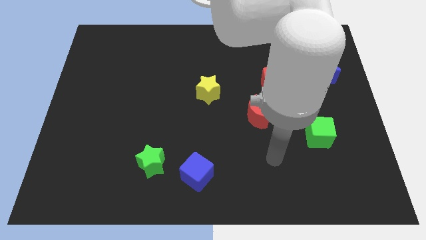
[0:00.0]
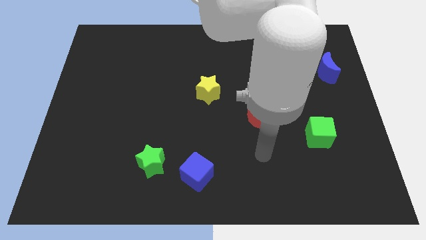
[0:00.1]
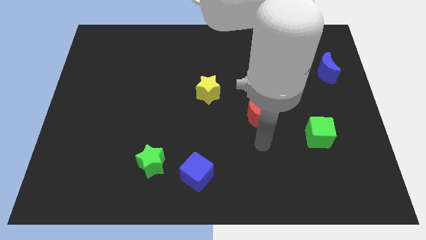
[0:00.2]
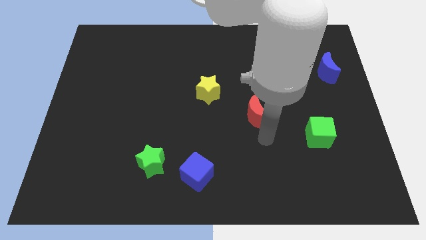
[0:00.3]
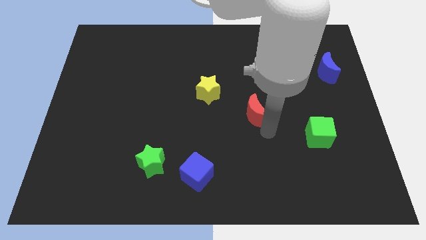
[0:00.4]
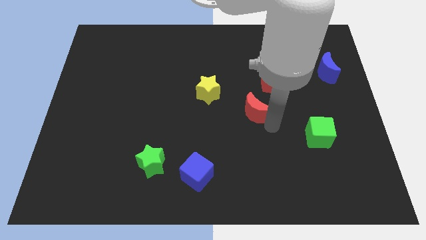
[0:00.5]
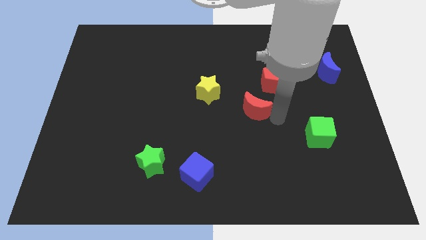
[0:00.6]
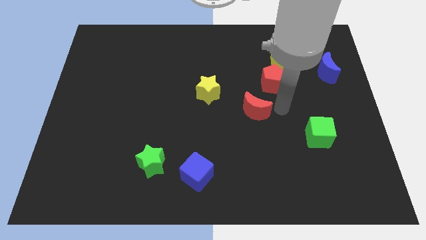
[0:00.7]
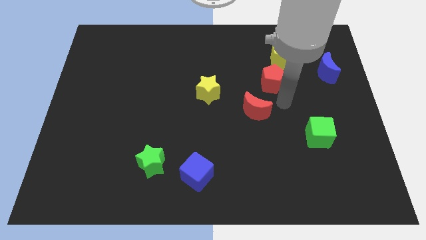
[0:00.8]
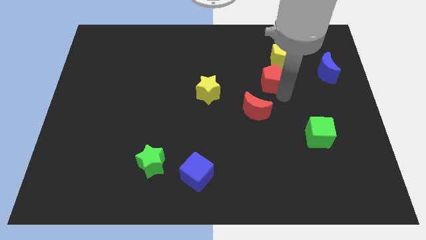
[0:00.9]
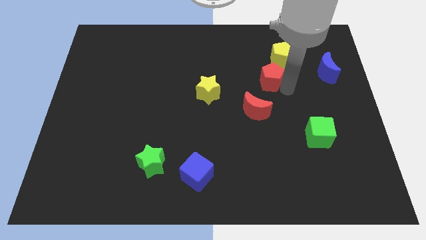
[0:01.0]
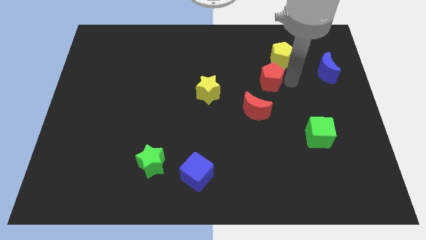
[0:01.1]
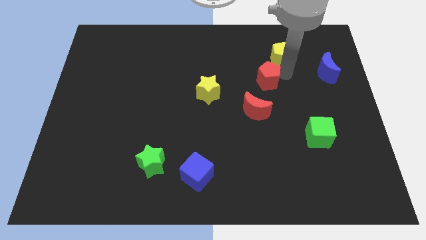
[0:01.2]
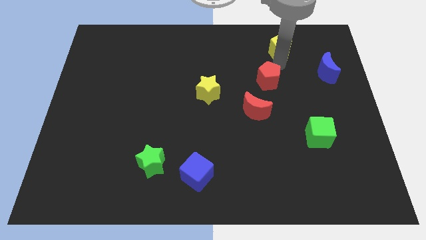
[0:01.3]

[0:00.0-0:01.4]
separate the red pentagon from the yellow pentagon

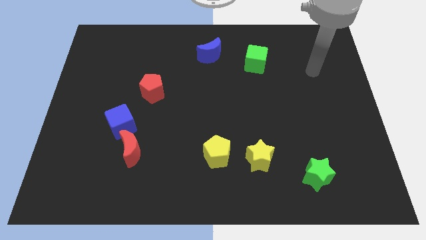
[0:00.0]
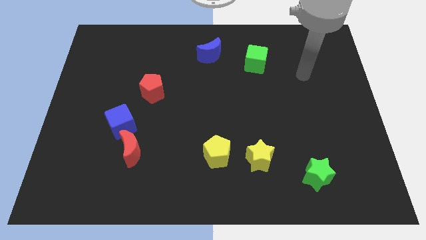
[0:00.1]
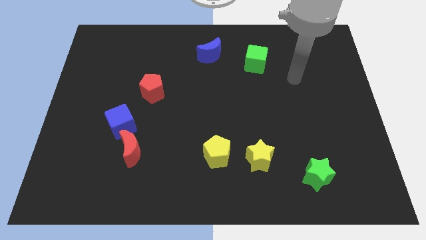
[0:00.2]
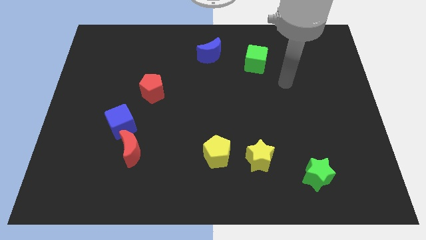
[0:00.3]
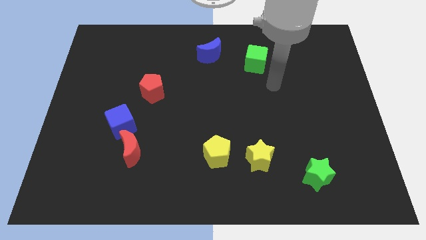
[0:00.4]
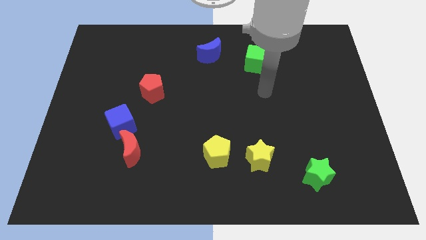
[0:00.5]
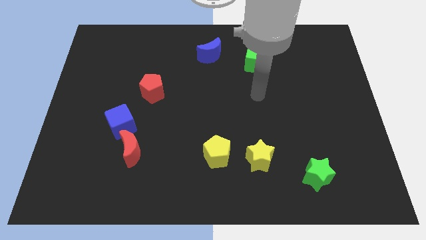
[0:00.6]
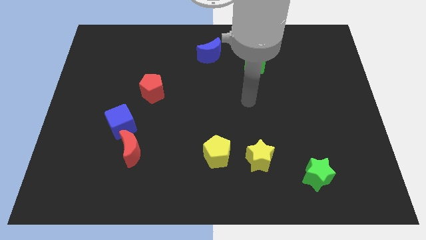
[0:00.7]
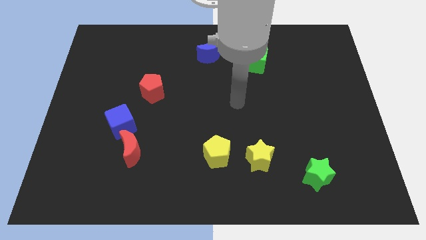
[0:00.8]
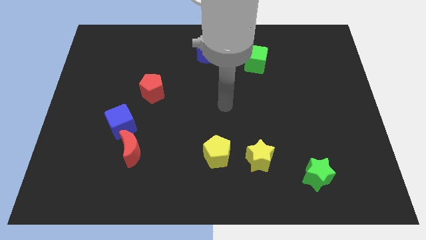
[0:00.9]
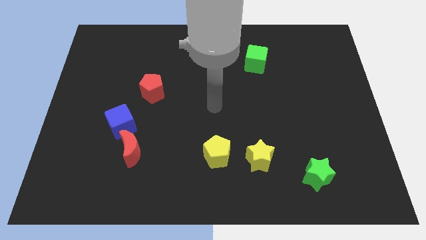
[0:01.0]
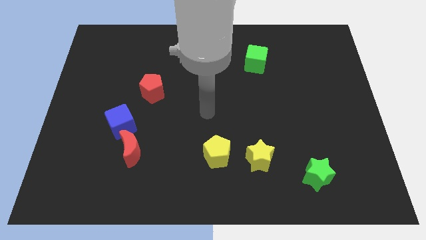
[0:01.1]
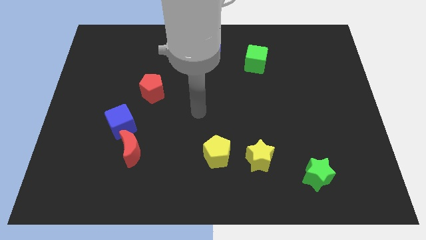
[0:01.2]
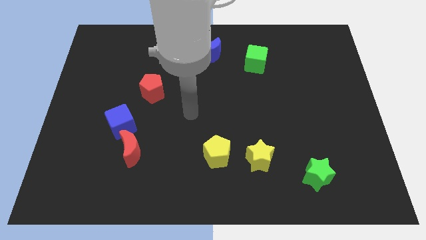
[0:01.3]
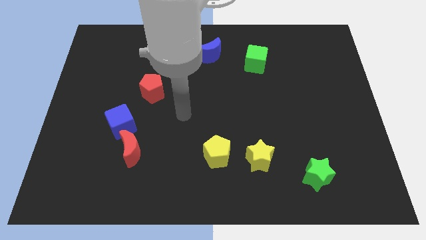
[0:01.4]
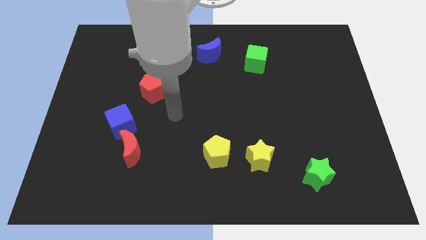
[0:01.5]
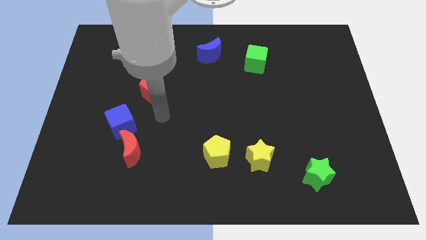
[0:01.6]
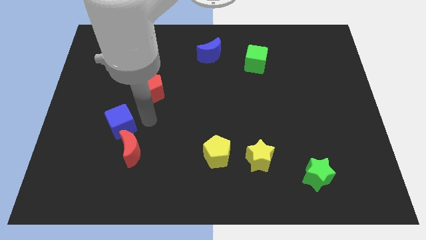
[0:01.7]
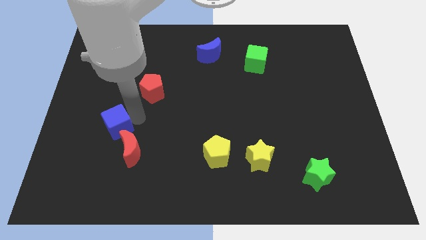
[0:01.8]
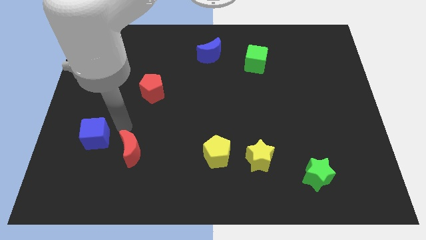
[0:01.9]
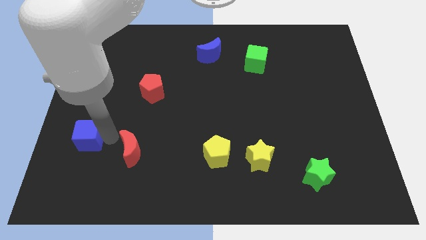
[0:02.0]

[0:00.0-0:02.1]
separate the red moon from the blue cube

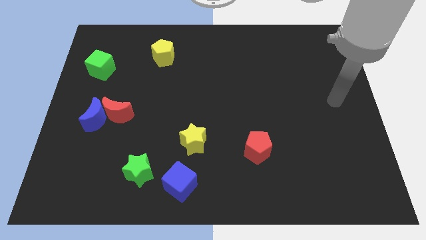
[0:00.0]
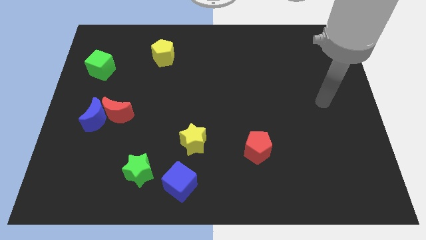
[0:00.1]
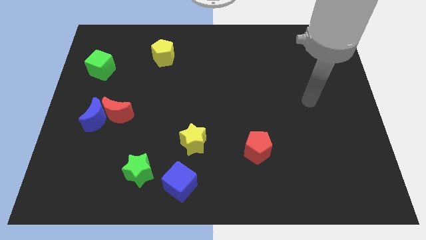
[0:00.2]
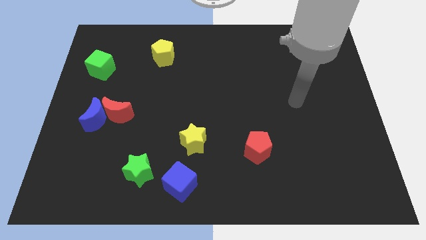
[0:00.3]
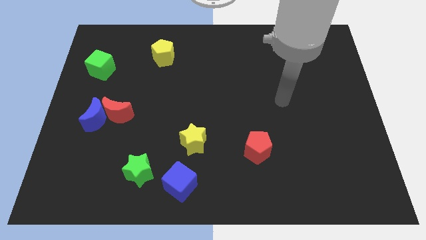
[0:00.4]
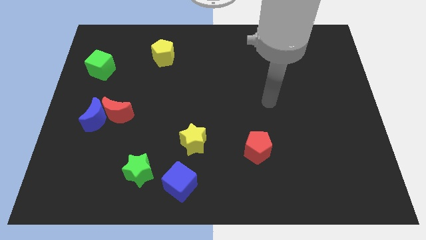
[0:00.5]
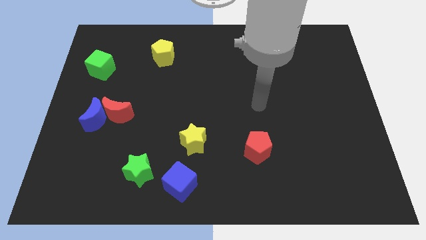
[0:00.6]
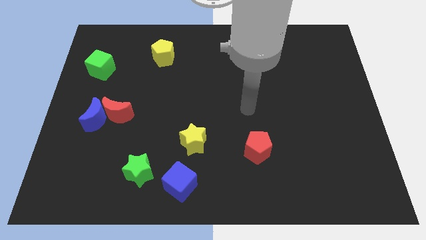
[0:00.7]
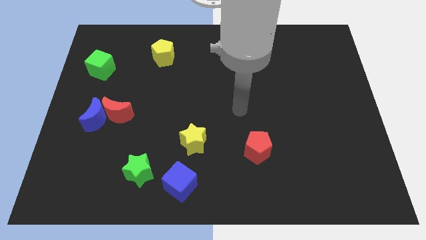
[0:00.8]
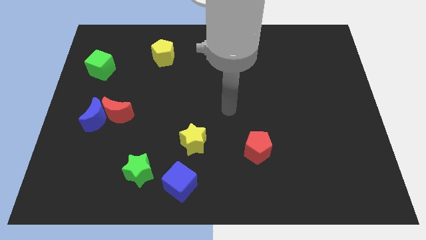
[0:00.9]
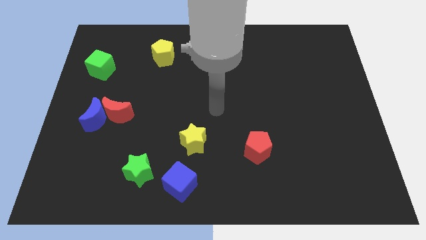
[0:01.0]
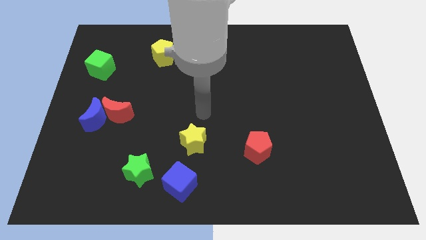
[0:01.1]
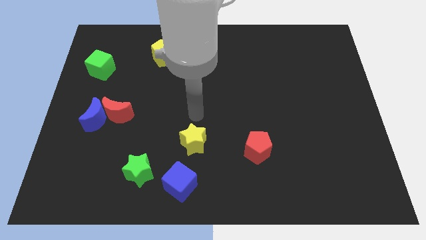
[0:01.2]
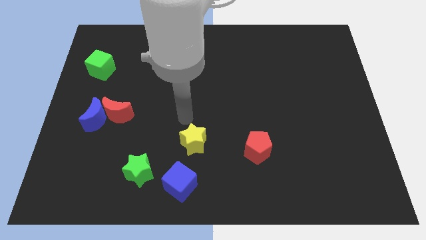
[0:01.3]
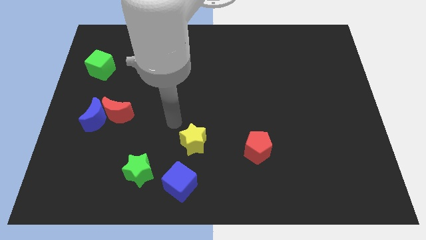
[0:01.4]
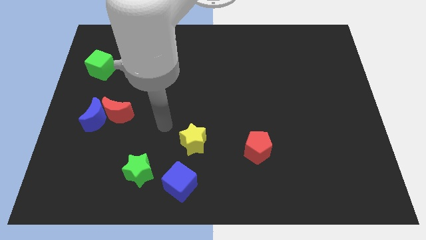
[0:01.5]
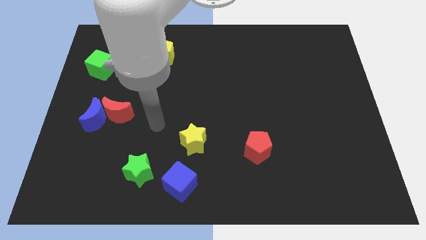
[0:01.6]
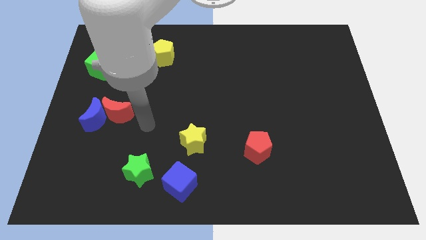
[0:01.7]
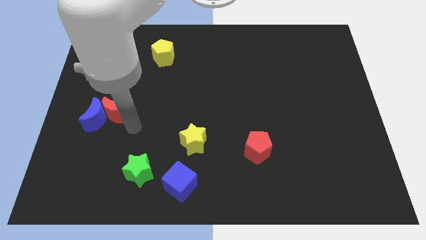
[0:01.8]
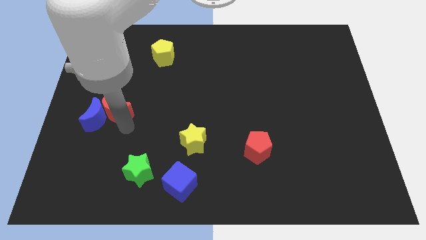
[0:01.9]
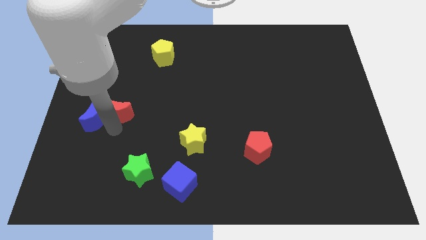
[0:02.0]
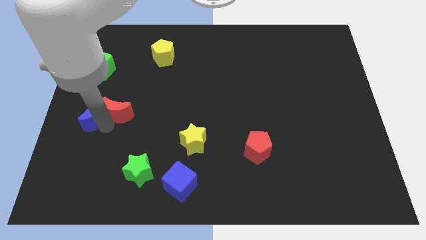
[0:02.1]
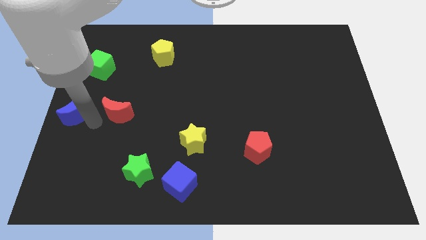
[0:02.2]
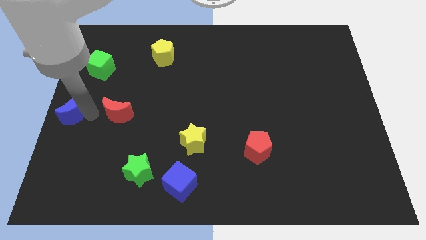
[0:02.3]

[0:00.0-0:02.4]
move the red moon away from the blue moon

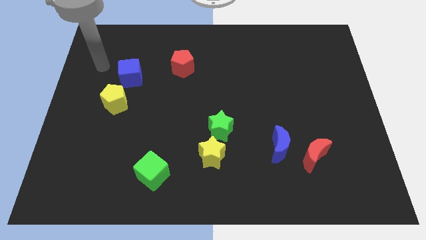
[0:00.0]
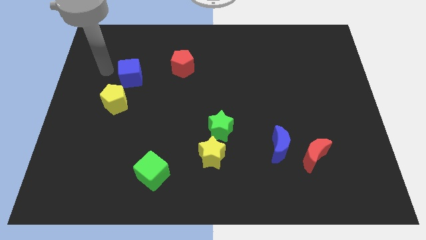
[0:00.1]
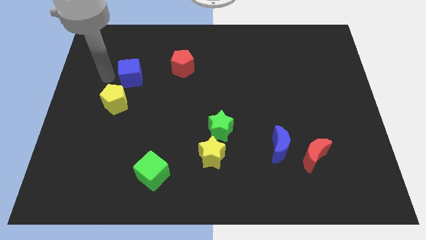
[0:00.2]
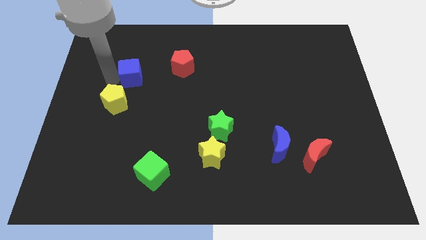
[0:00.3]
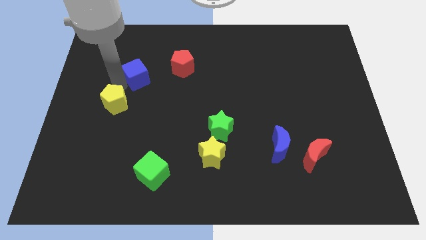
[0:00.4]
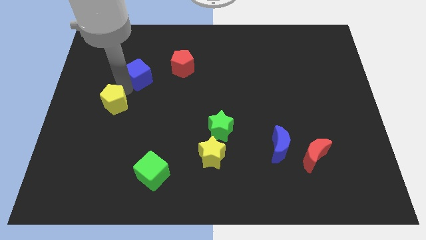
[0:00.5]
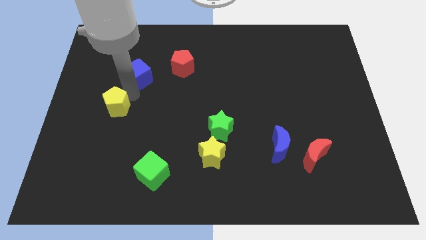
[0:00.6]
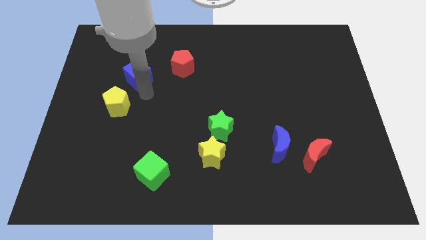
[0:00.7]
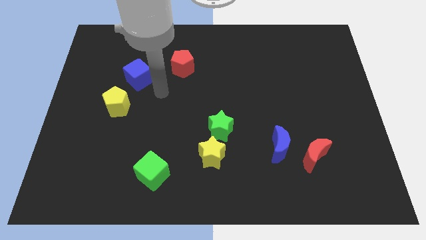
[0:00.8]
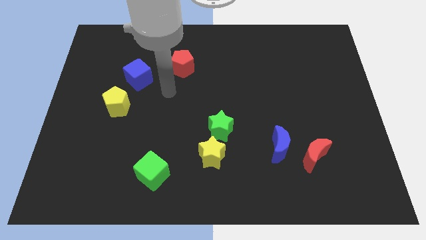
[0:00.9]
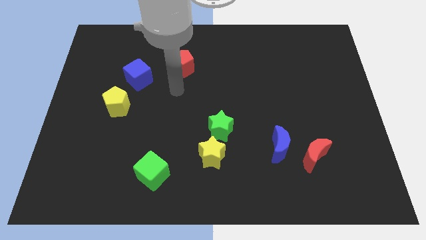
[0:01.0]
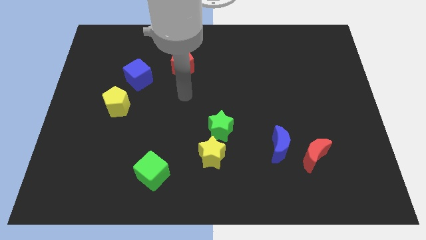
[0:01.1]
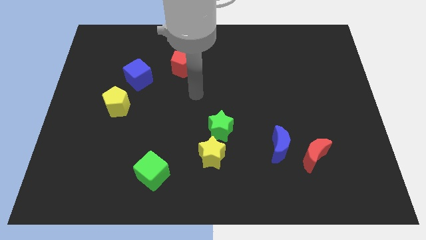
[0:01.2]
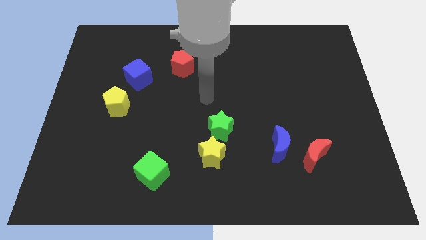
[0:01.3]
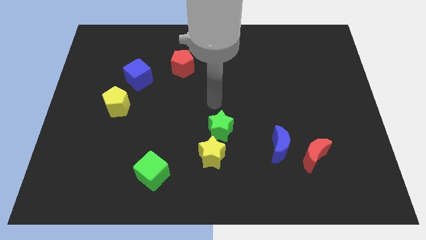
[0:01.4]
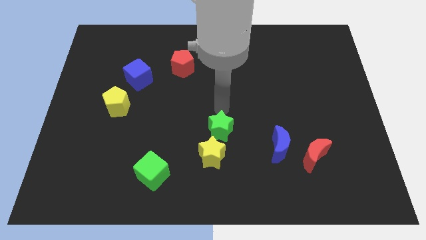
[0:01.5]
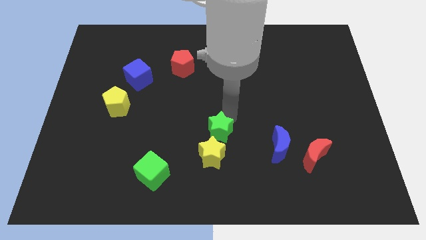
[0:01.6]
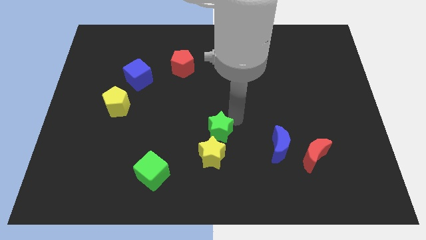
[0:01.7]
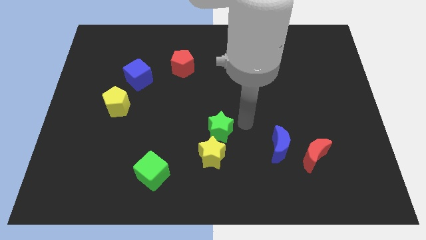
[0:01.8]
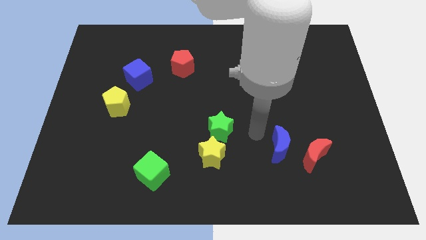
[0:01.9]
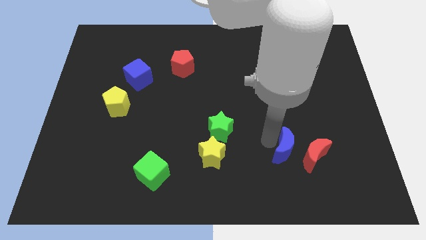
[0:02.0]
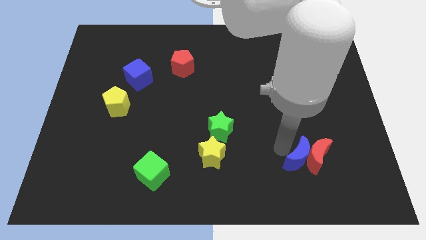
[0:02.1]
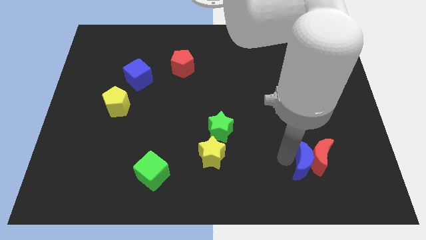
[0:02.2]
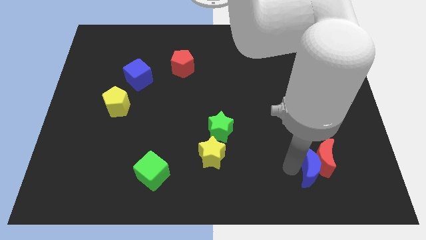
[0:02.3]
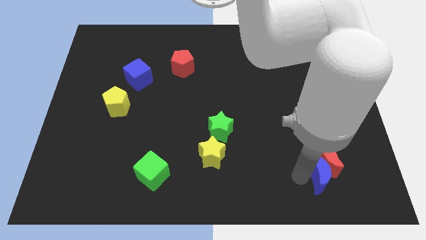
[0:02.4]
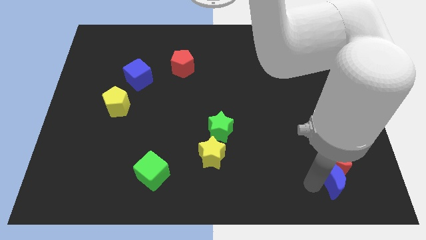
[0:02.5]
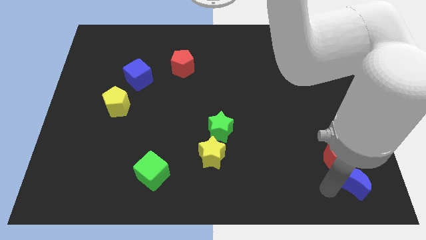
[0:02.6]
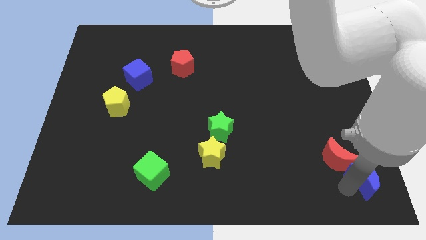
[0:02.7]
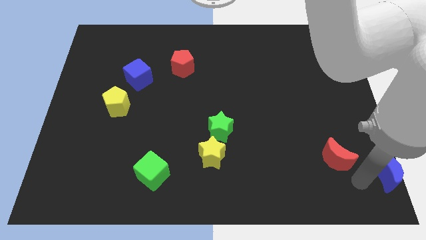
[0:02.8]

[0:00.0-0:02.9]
pull the red moon apart from the blue moon

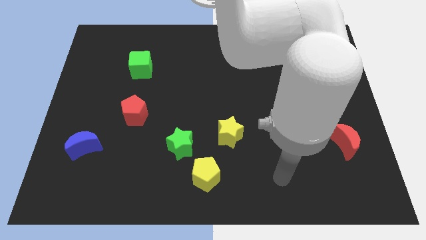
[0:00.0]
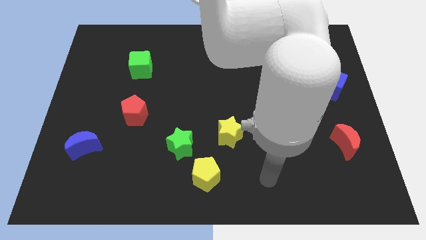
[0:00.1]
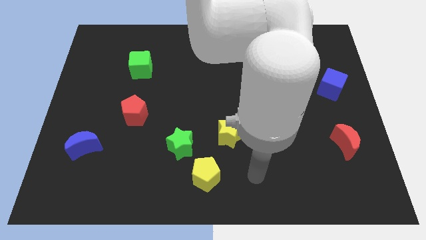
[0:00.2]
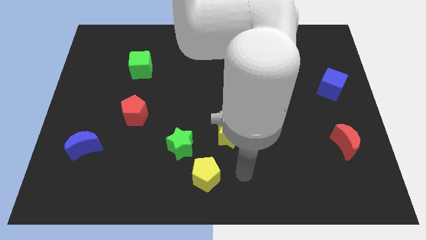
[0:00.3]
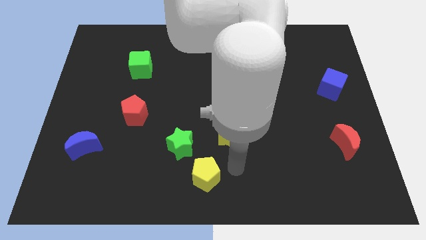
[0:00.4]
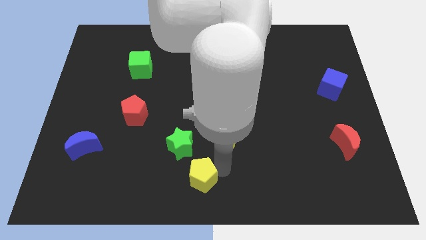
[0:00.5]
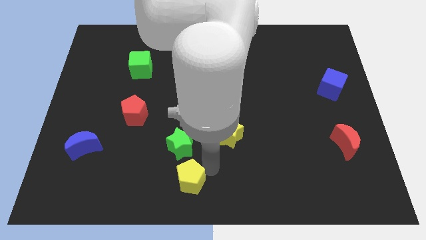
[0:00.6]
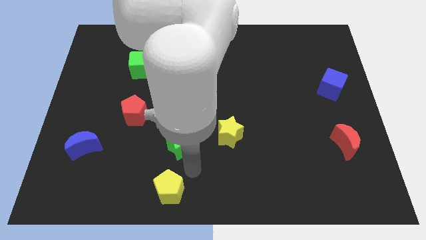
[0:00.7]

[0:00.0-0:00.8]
pull the green star apart from the yellow pentagon
